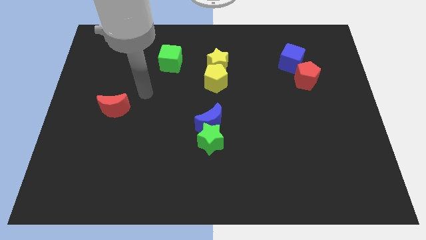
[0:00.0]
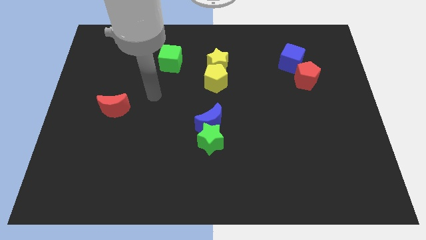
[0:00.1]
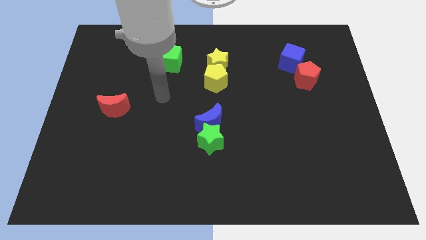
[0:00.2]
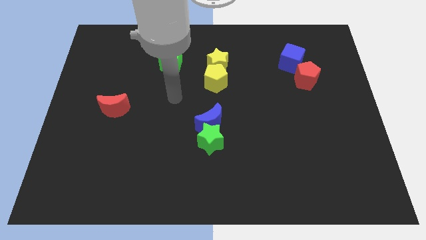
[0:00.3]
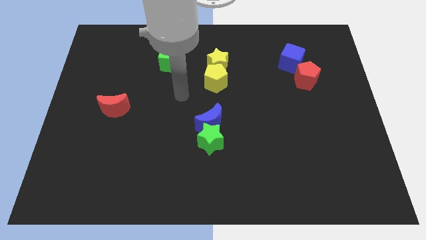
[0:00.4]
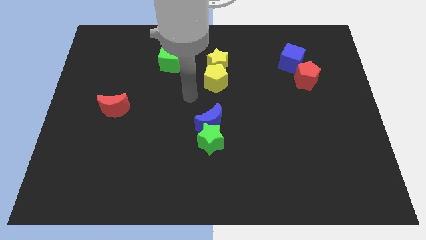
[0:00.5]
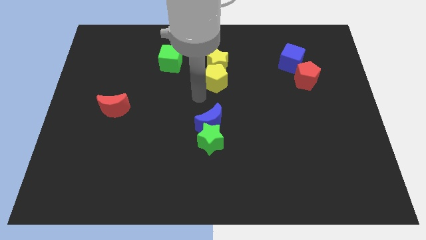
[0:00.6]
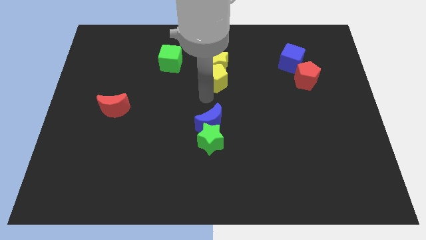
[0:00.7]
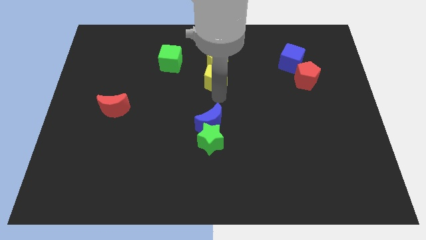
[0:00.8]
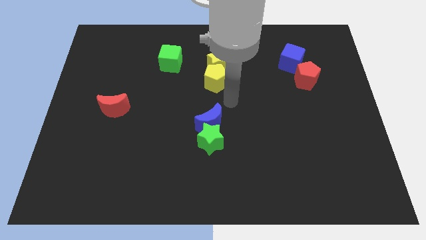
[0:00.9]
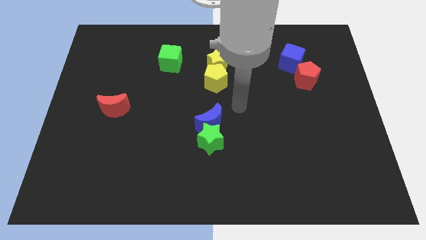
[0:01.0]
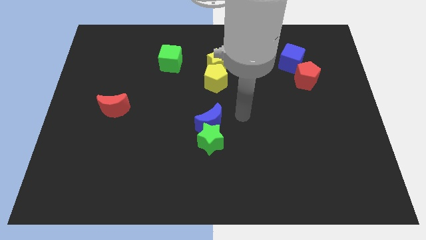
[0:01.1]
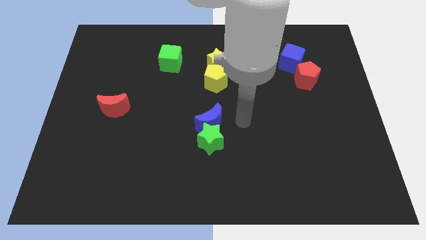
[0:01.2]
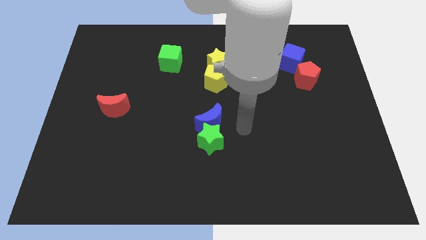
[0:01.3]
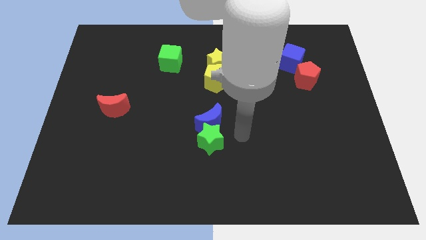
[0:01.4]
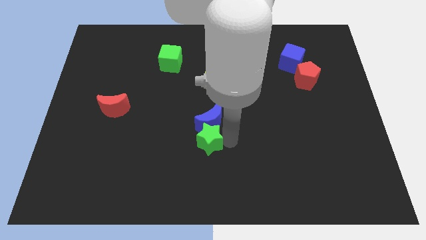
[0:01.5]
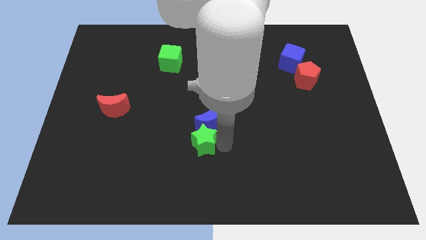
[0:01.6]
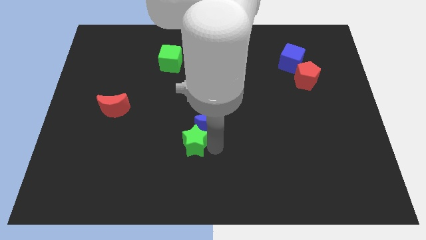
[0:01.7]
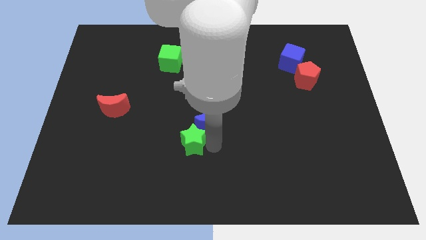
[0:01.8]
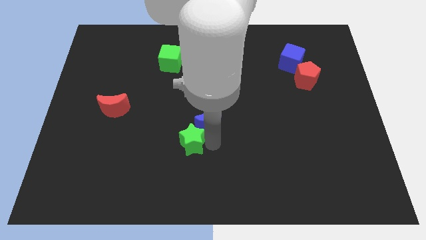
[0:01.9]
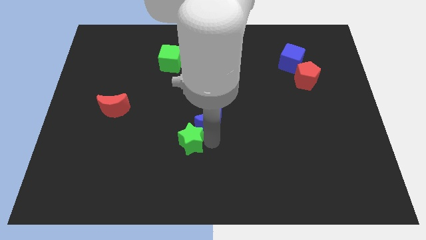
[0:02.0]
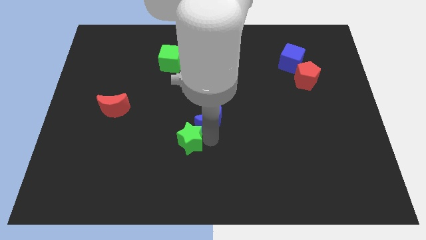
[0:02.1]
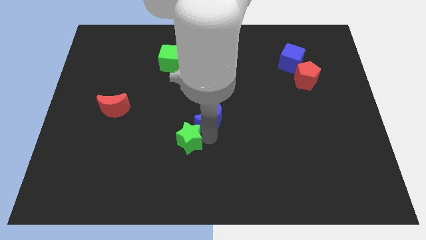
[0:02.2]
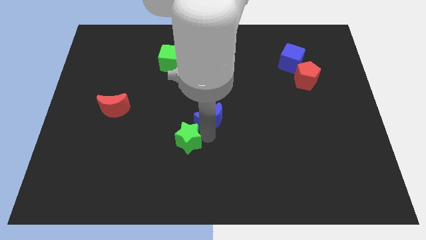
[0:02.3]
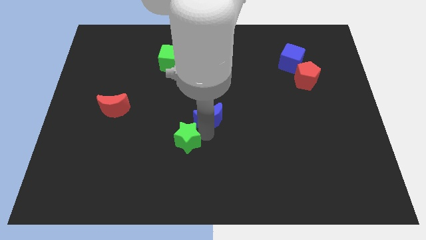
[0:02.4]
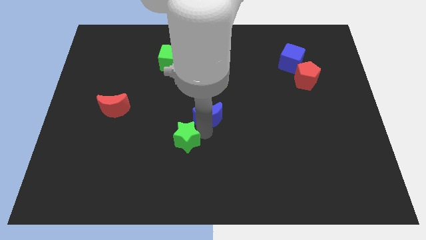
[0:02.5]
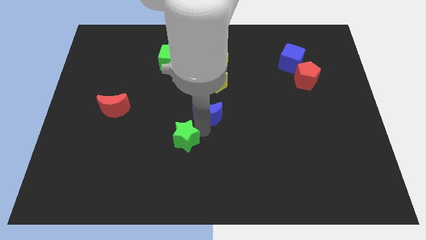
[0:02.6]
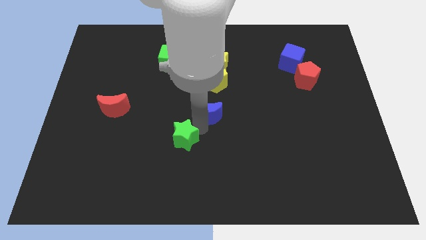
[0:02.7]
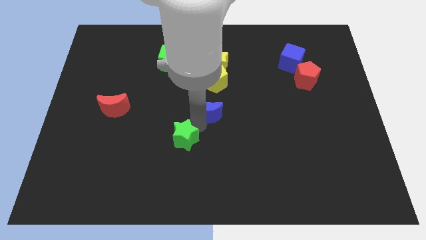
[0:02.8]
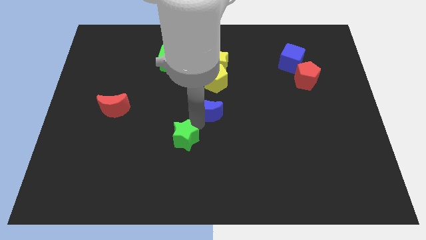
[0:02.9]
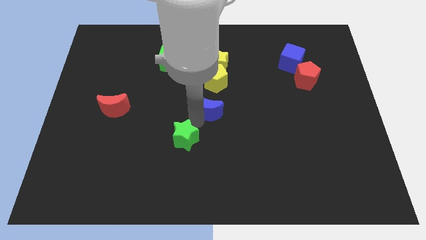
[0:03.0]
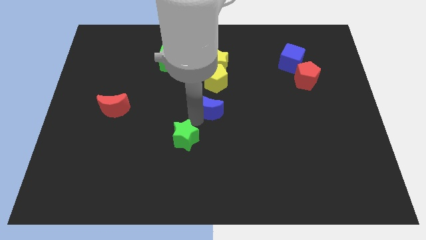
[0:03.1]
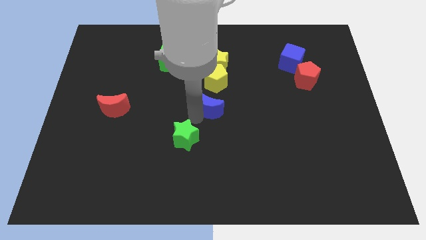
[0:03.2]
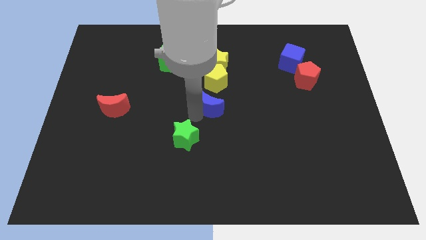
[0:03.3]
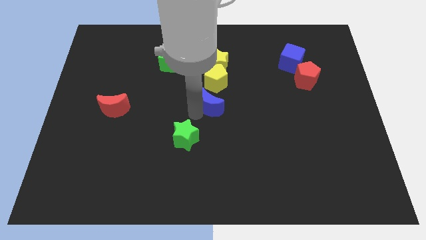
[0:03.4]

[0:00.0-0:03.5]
separate the blue moon from the green star

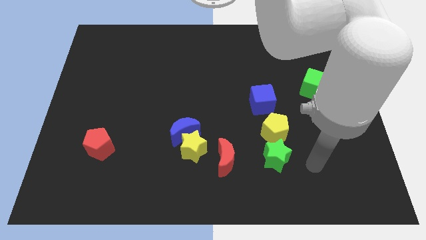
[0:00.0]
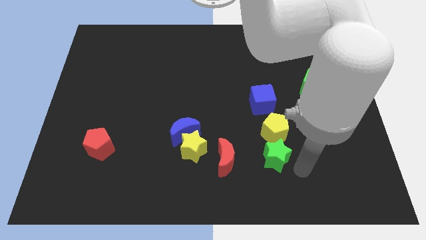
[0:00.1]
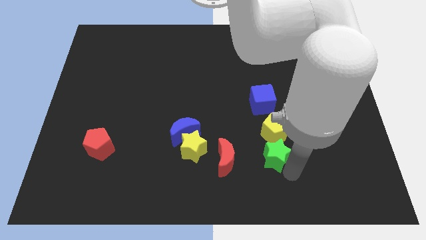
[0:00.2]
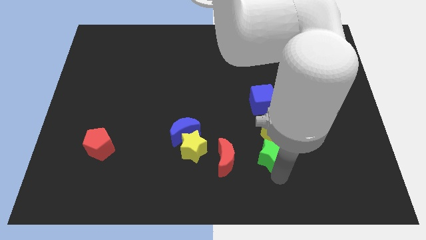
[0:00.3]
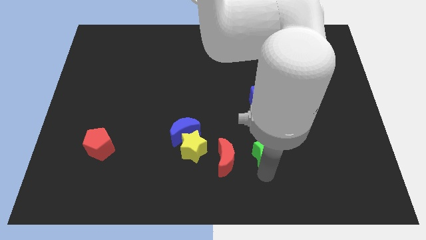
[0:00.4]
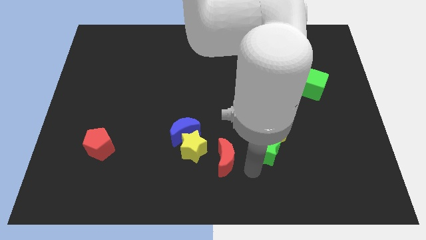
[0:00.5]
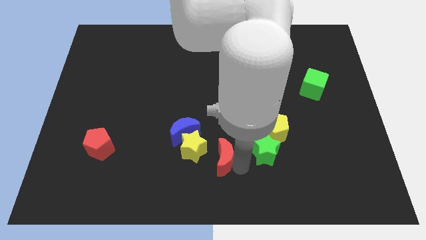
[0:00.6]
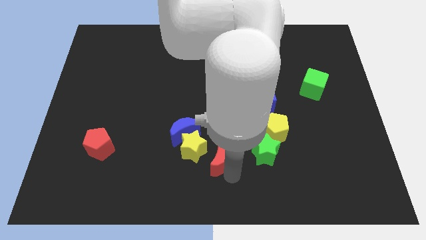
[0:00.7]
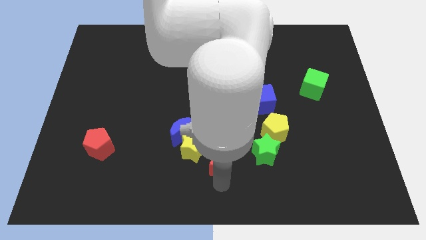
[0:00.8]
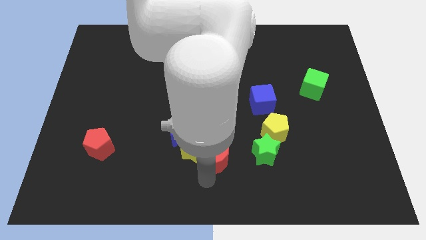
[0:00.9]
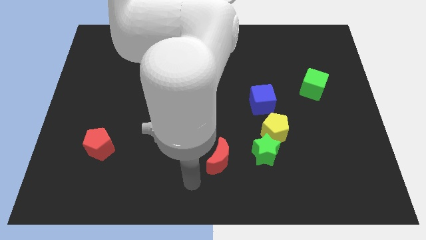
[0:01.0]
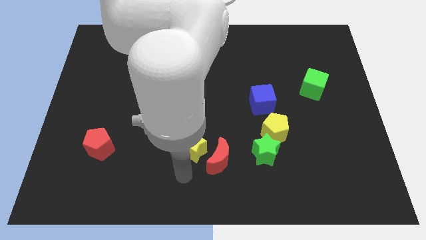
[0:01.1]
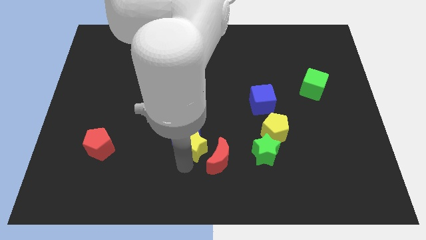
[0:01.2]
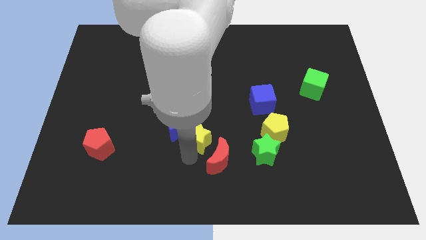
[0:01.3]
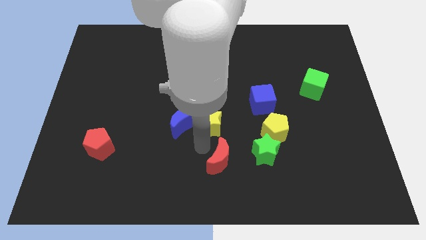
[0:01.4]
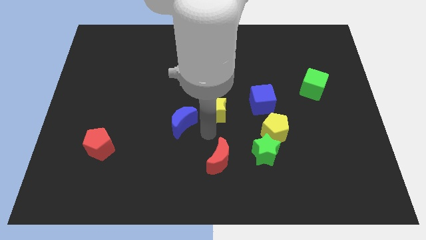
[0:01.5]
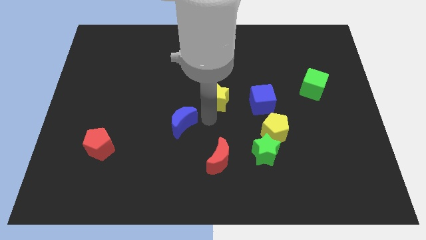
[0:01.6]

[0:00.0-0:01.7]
pull the blue moon apart from the yellow star

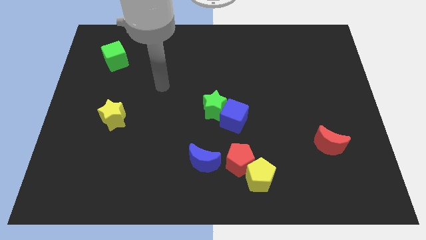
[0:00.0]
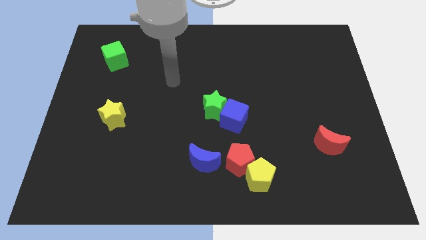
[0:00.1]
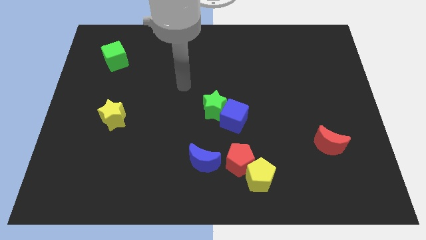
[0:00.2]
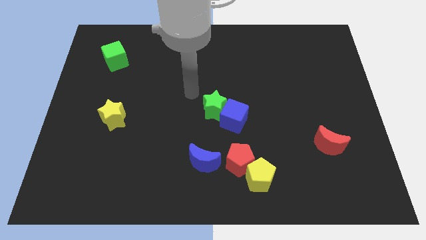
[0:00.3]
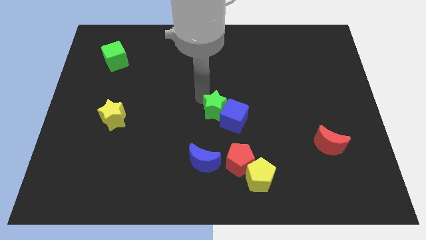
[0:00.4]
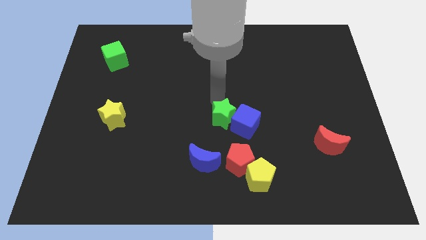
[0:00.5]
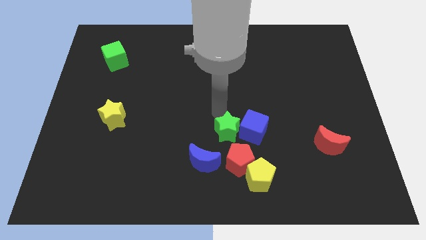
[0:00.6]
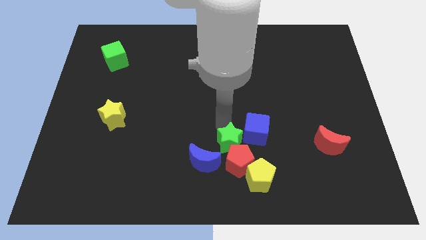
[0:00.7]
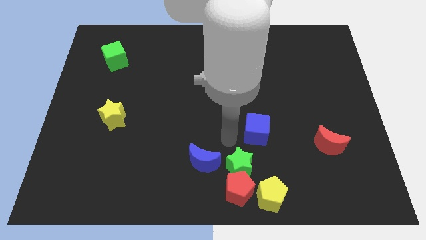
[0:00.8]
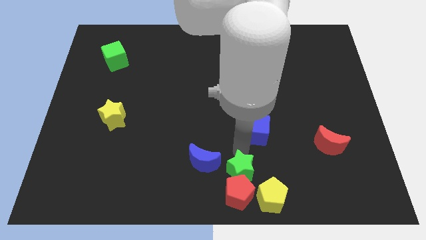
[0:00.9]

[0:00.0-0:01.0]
pull the blue cube apart from the green star

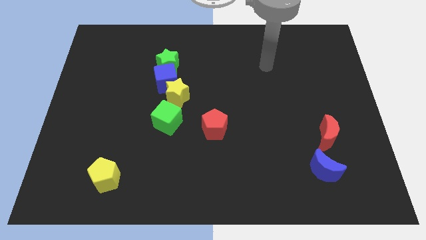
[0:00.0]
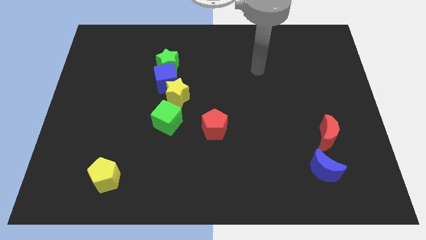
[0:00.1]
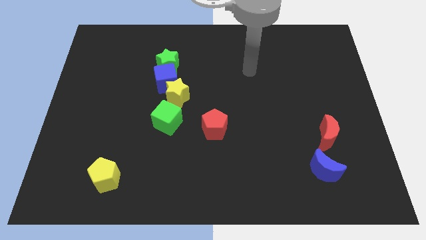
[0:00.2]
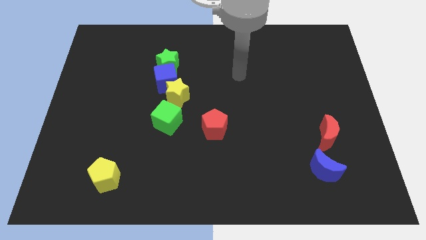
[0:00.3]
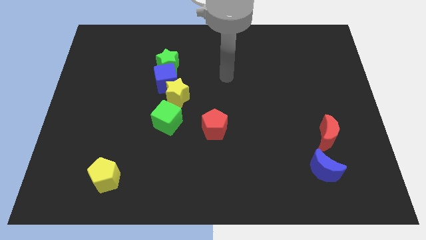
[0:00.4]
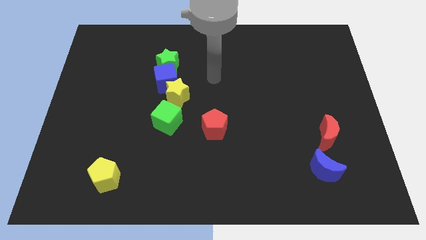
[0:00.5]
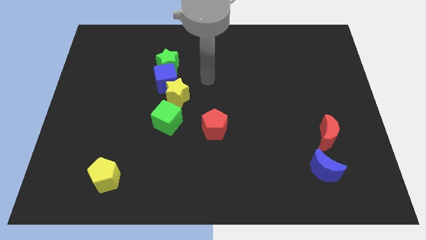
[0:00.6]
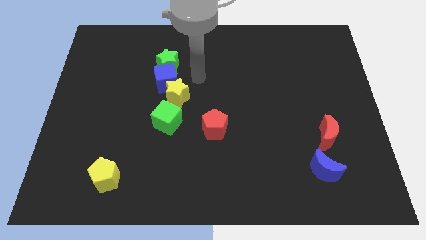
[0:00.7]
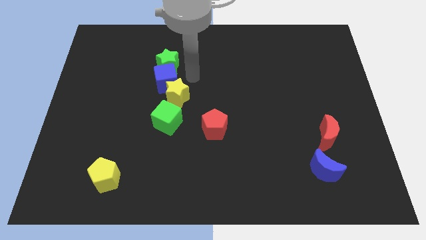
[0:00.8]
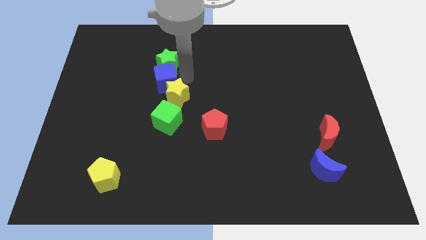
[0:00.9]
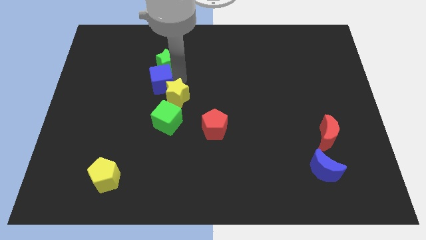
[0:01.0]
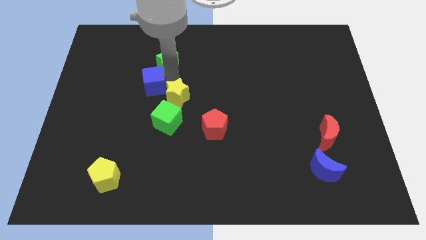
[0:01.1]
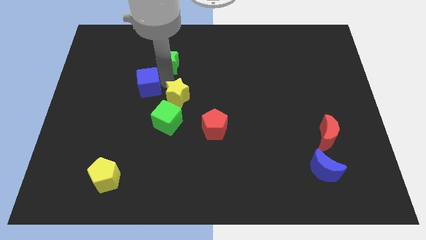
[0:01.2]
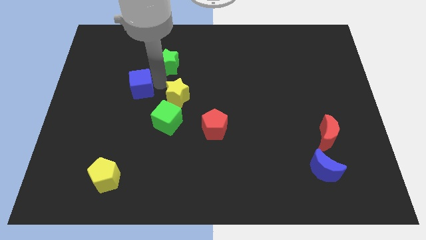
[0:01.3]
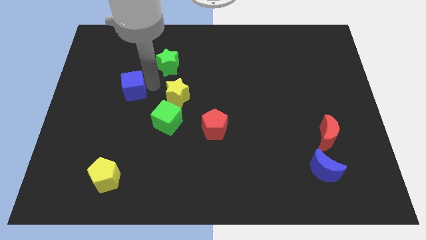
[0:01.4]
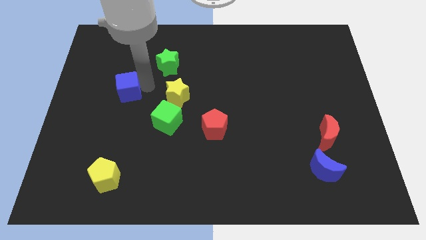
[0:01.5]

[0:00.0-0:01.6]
move the blue cube away from the yellow star and green star

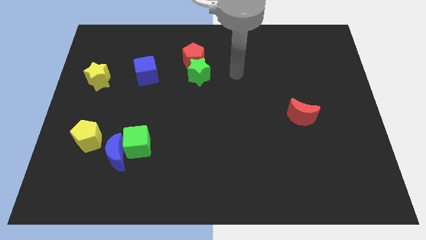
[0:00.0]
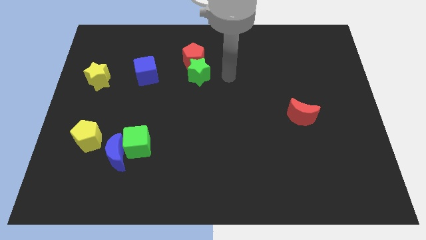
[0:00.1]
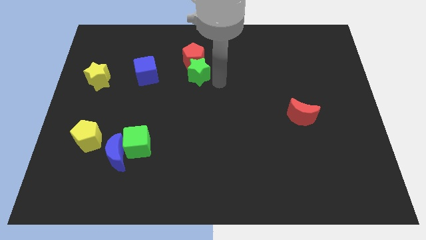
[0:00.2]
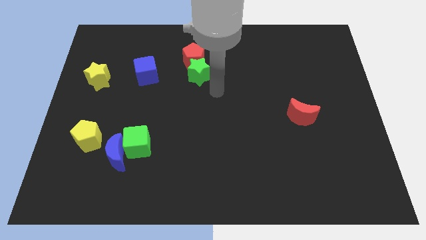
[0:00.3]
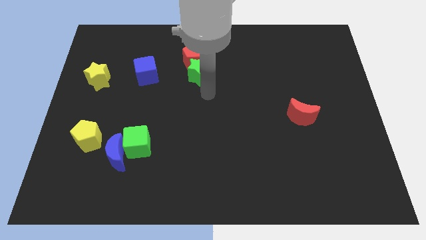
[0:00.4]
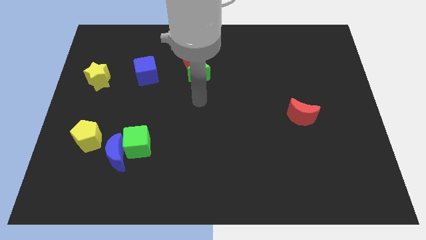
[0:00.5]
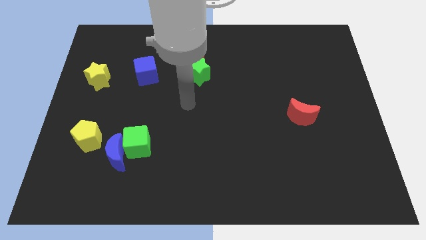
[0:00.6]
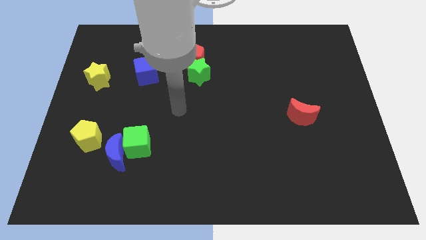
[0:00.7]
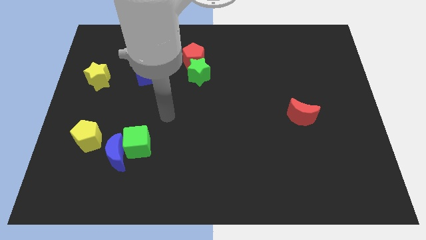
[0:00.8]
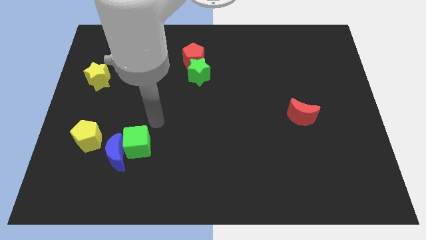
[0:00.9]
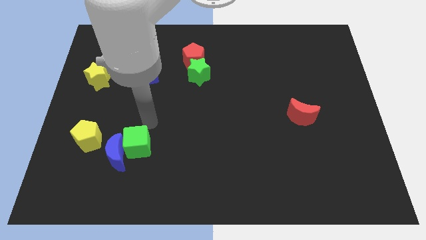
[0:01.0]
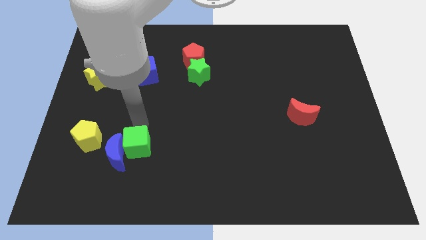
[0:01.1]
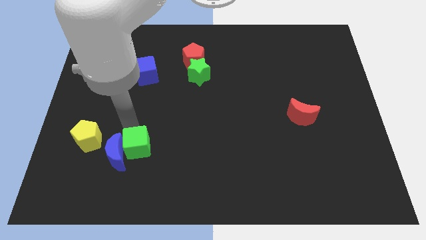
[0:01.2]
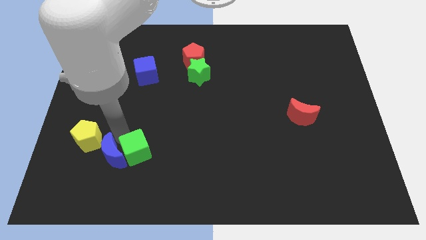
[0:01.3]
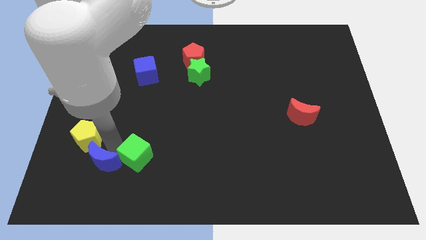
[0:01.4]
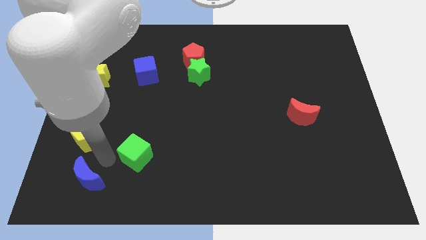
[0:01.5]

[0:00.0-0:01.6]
separate the green cube from the blue moon

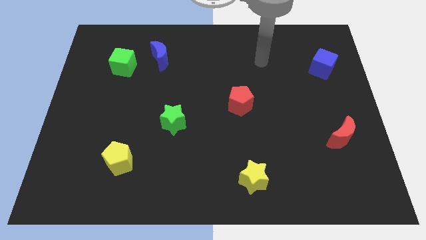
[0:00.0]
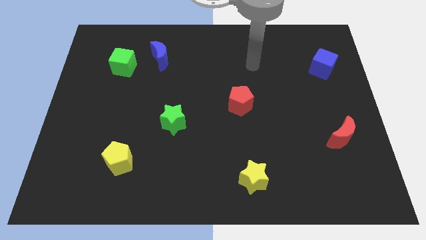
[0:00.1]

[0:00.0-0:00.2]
move the blue moon away from the green cube
